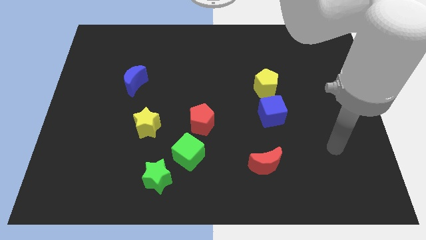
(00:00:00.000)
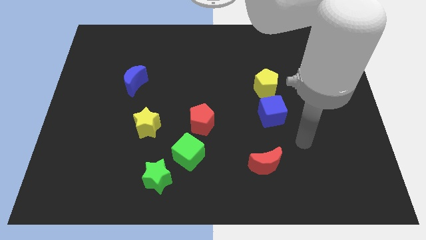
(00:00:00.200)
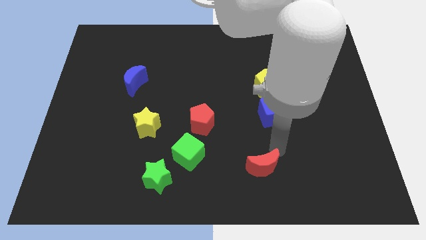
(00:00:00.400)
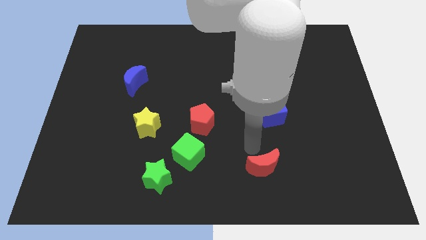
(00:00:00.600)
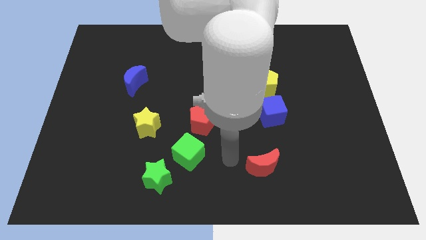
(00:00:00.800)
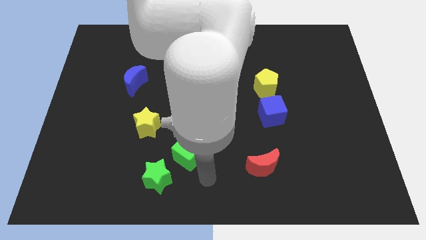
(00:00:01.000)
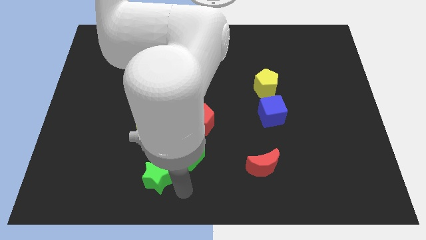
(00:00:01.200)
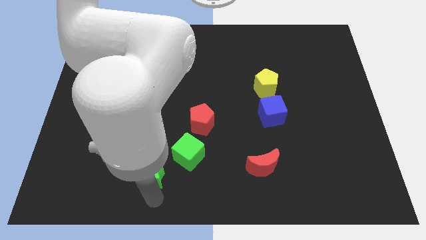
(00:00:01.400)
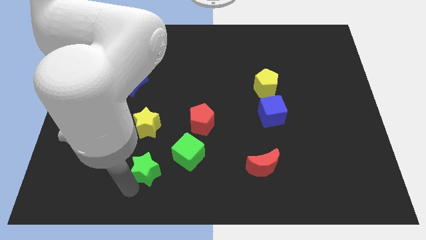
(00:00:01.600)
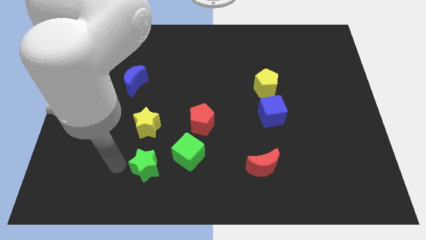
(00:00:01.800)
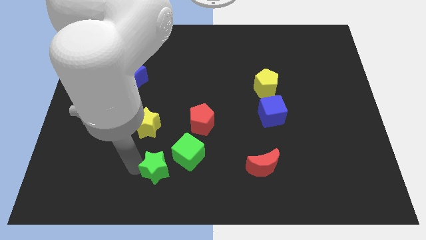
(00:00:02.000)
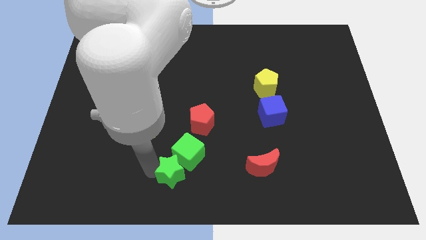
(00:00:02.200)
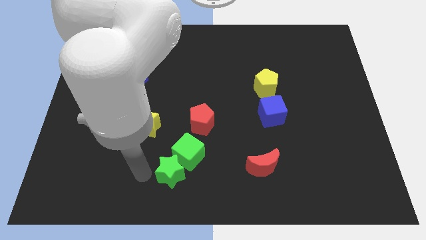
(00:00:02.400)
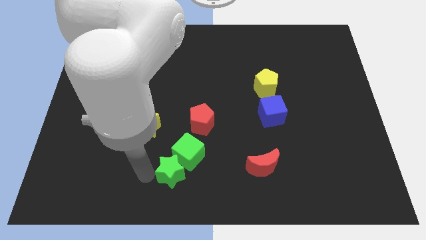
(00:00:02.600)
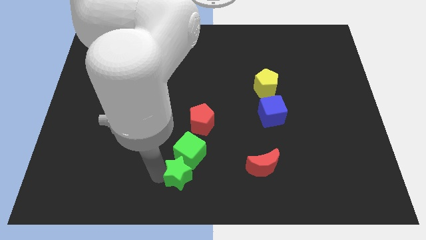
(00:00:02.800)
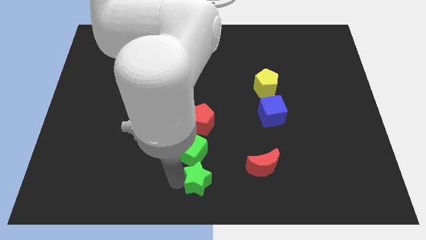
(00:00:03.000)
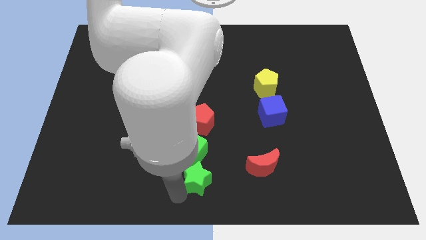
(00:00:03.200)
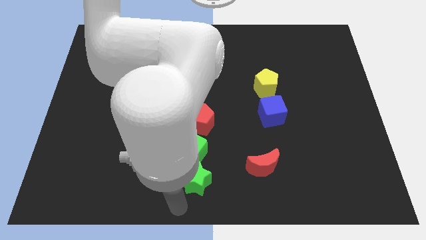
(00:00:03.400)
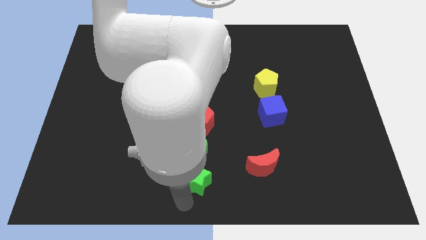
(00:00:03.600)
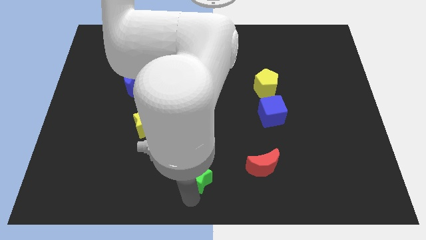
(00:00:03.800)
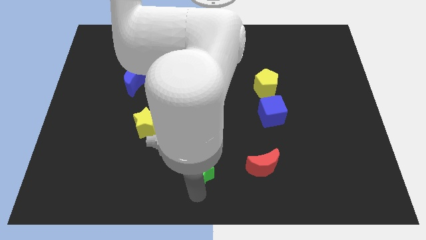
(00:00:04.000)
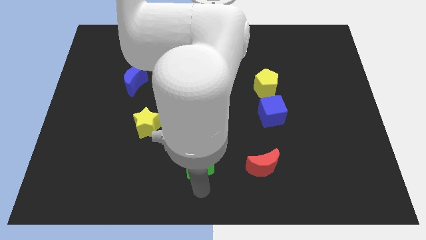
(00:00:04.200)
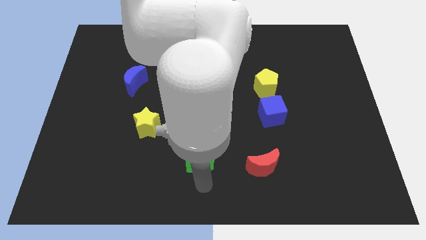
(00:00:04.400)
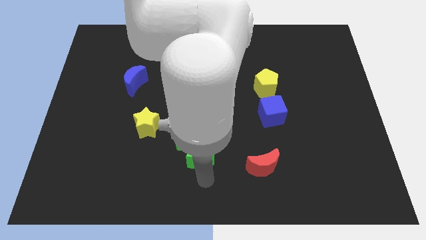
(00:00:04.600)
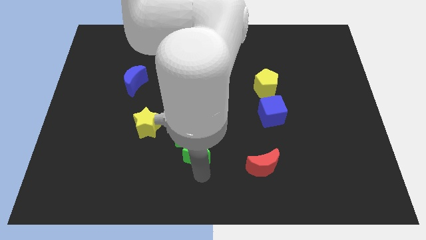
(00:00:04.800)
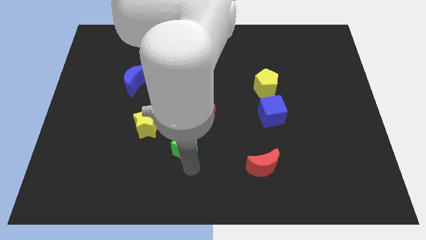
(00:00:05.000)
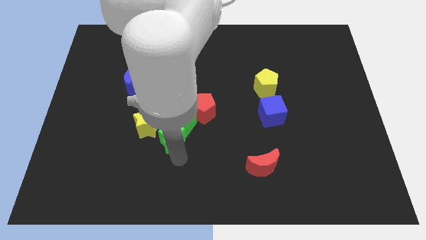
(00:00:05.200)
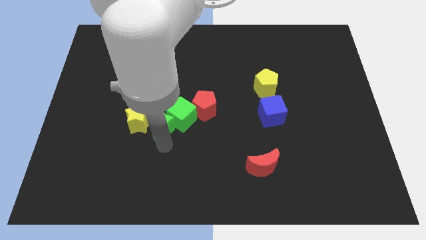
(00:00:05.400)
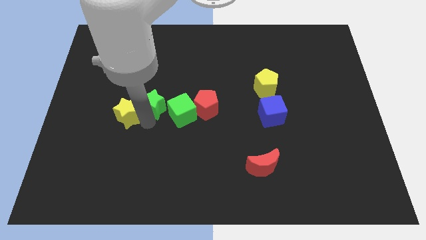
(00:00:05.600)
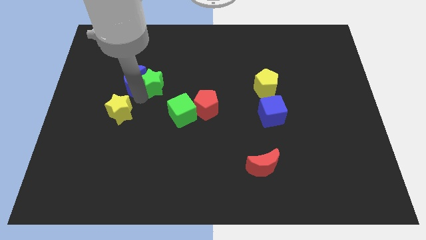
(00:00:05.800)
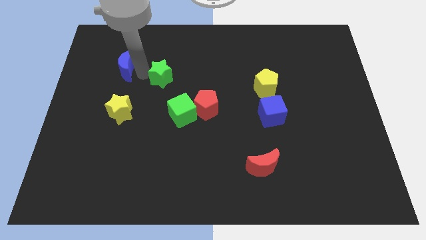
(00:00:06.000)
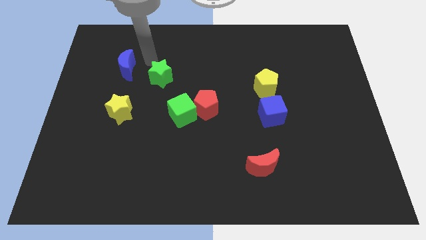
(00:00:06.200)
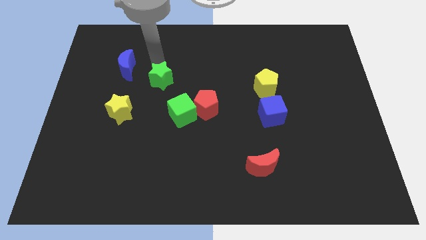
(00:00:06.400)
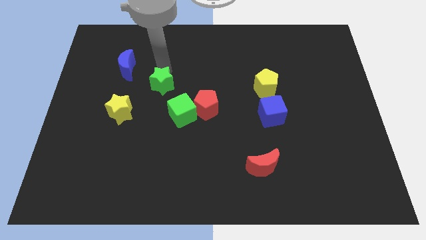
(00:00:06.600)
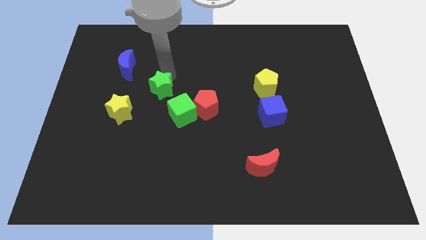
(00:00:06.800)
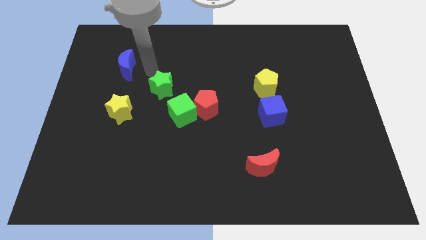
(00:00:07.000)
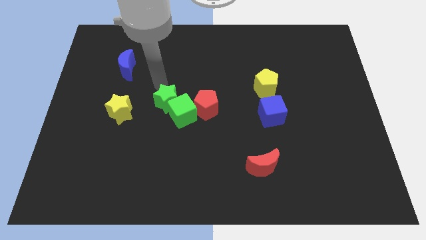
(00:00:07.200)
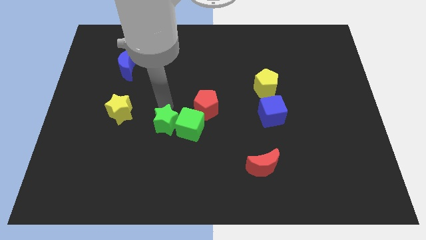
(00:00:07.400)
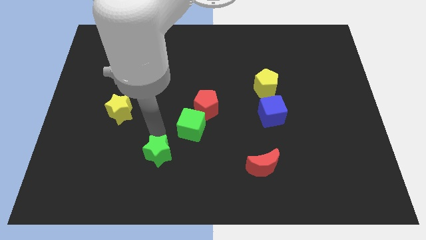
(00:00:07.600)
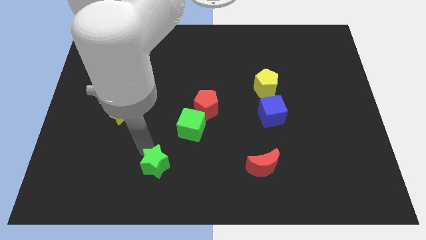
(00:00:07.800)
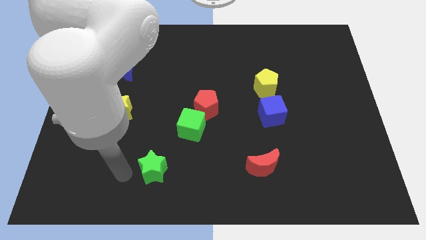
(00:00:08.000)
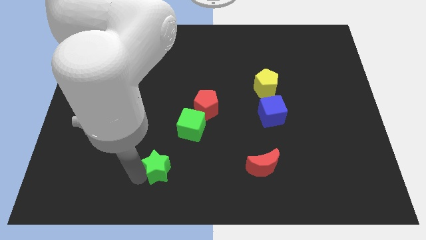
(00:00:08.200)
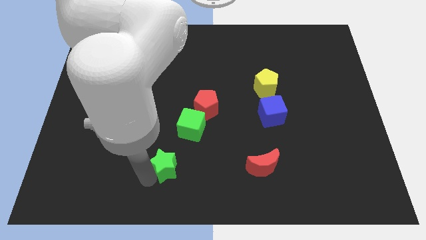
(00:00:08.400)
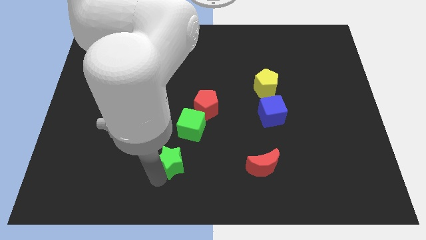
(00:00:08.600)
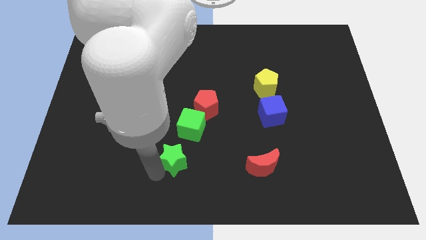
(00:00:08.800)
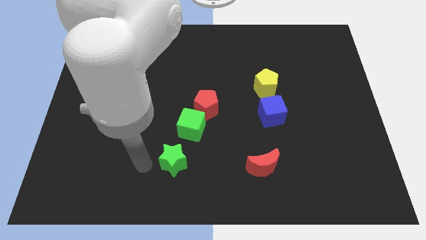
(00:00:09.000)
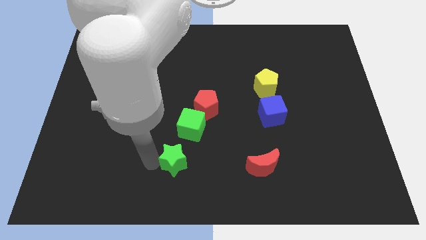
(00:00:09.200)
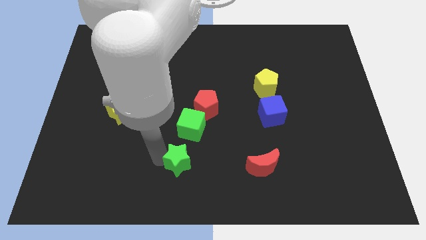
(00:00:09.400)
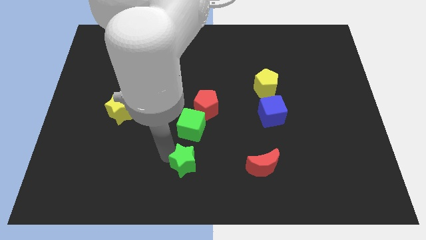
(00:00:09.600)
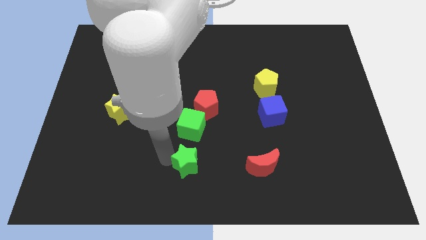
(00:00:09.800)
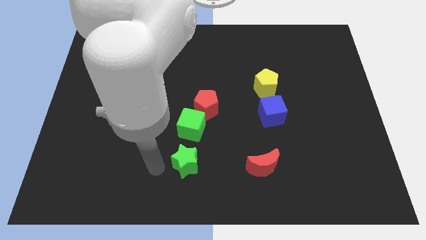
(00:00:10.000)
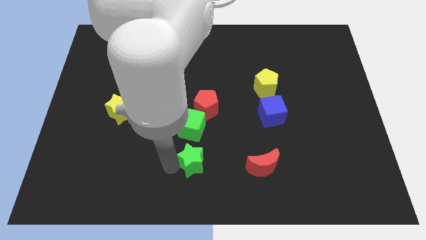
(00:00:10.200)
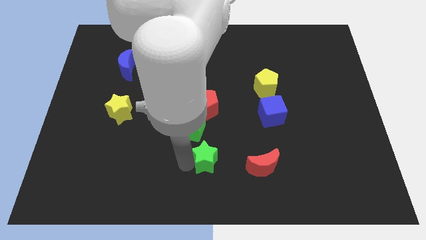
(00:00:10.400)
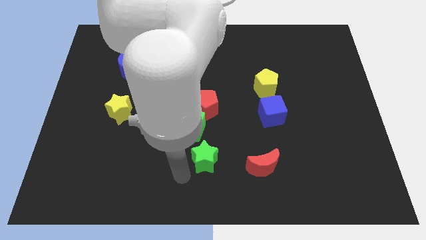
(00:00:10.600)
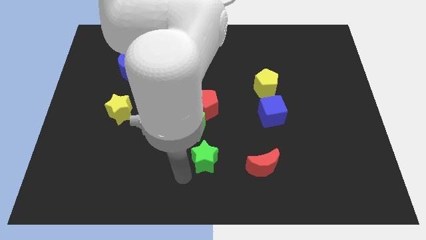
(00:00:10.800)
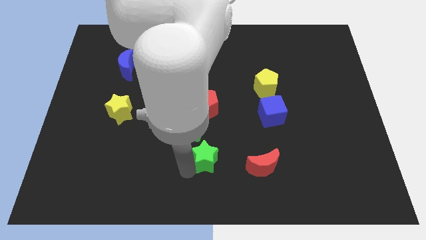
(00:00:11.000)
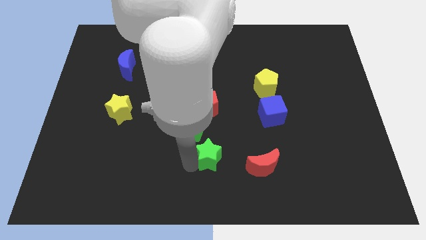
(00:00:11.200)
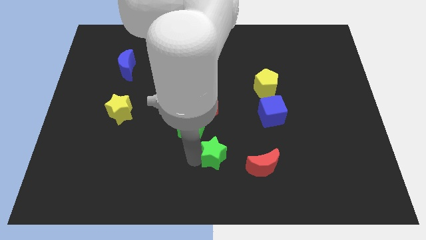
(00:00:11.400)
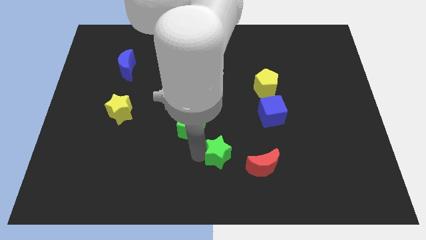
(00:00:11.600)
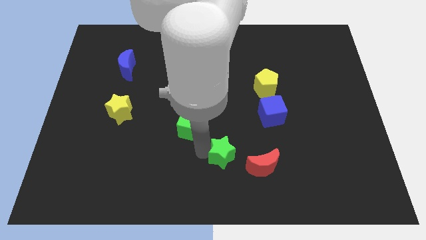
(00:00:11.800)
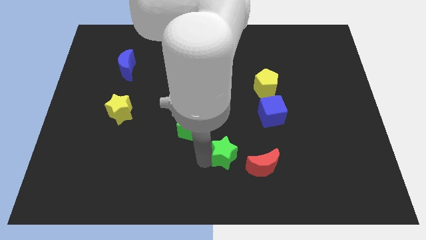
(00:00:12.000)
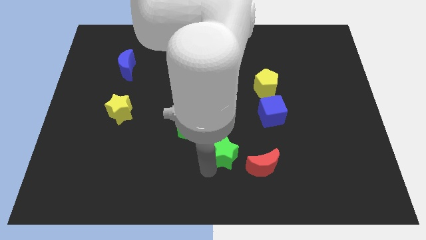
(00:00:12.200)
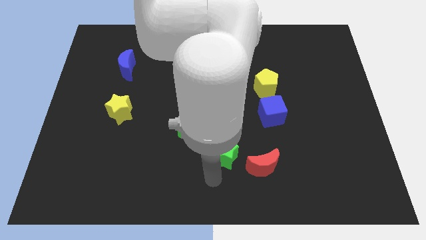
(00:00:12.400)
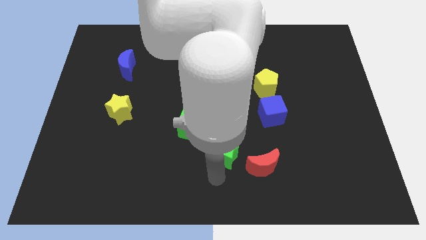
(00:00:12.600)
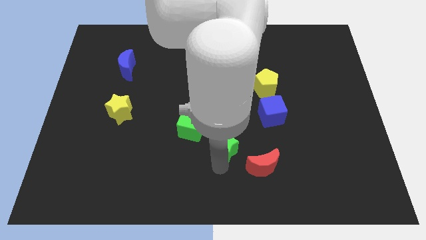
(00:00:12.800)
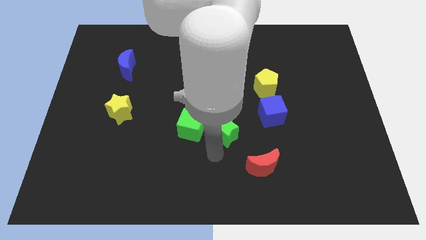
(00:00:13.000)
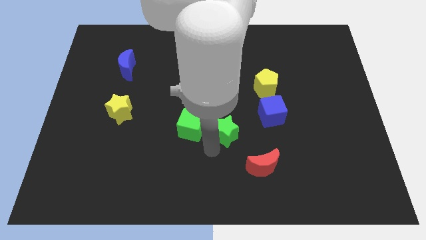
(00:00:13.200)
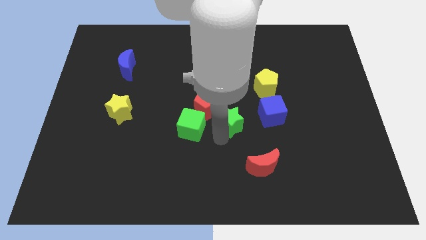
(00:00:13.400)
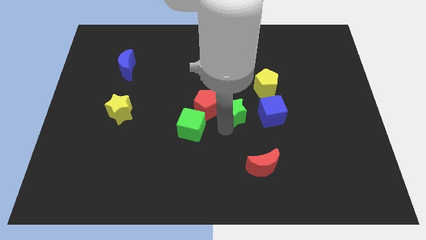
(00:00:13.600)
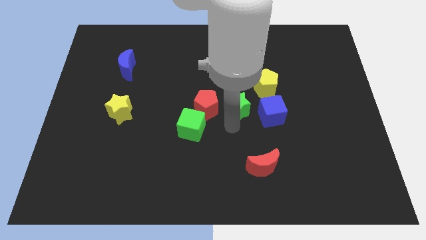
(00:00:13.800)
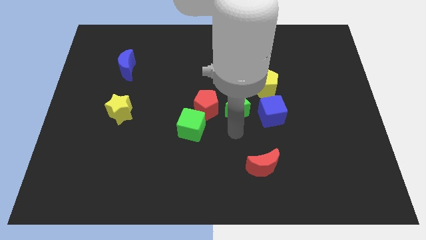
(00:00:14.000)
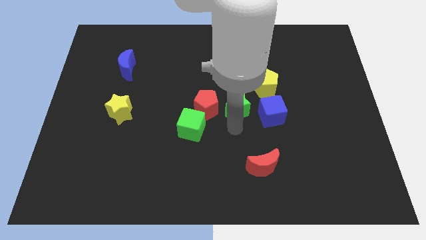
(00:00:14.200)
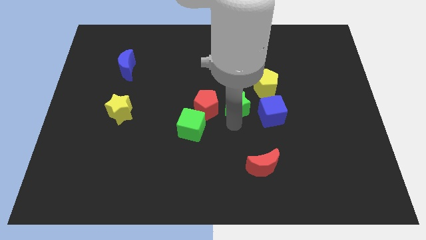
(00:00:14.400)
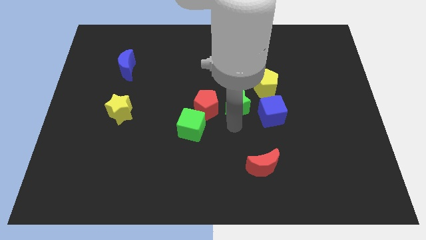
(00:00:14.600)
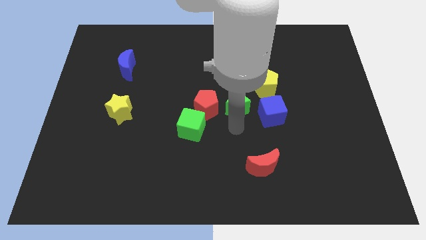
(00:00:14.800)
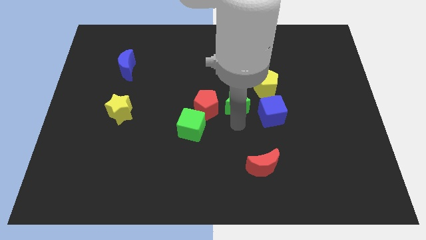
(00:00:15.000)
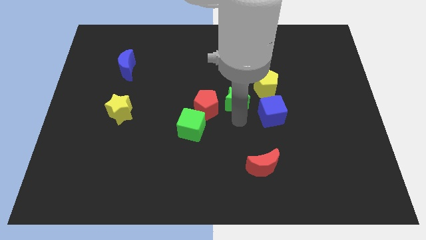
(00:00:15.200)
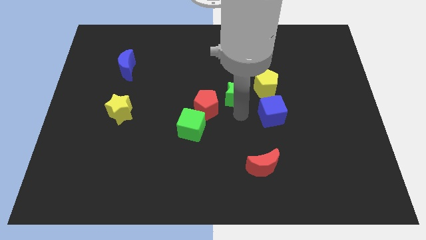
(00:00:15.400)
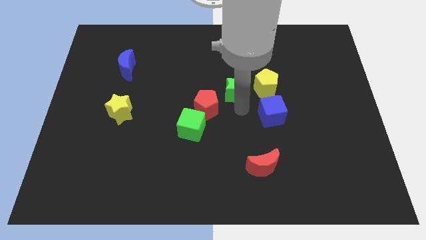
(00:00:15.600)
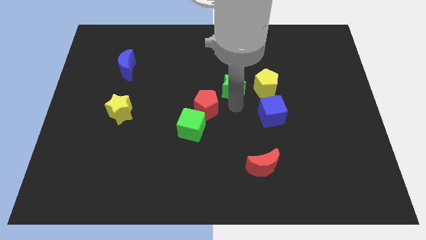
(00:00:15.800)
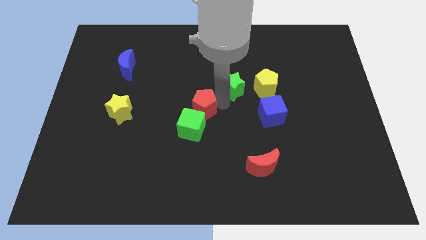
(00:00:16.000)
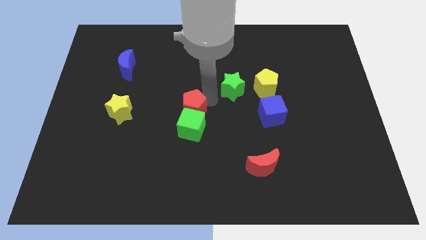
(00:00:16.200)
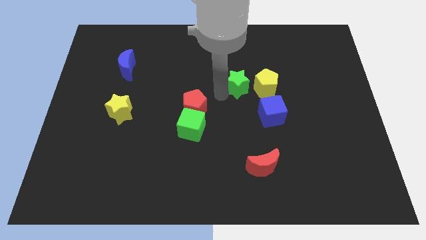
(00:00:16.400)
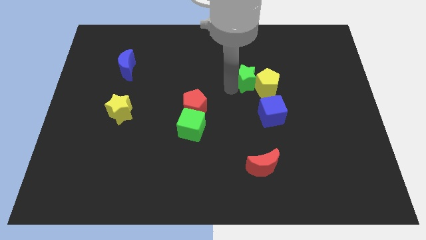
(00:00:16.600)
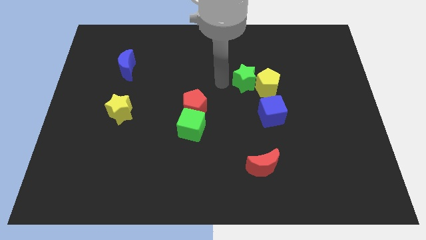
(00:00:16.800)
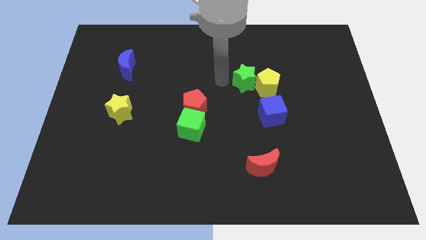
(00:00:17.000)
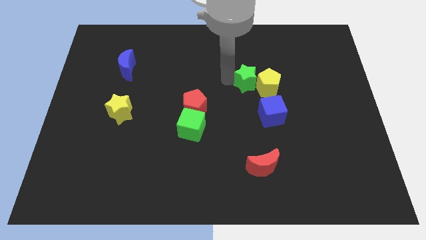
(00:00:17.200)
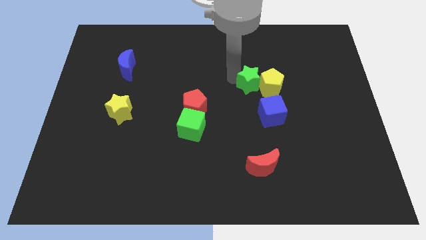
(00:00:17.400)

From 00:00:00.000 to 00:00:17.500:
slide the green star to the top side of the blue cube
